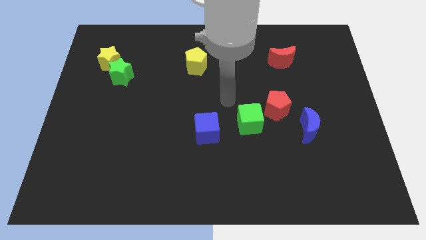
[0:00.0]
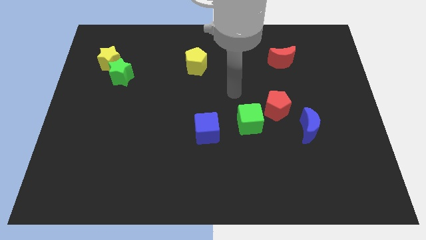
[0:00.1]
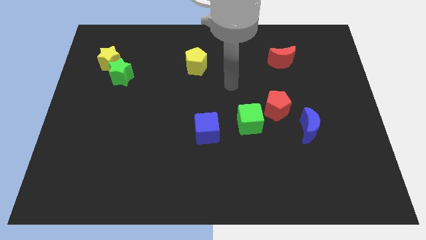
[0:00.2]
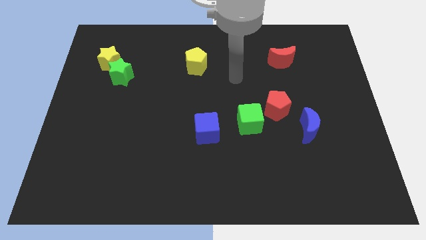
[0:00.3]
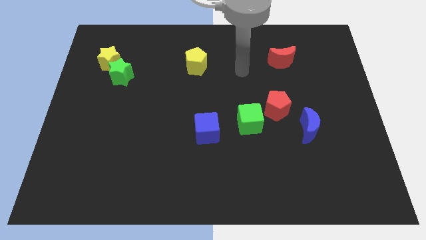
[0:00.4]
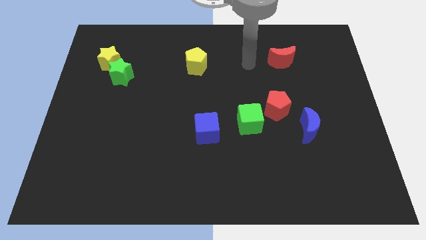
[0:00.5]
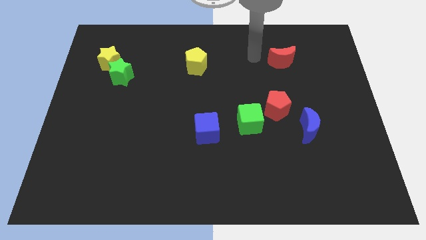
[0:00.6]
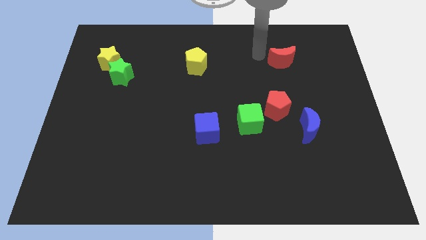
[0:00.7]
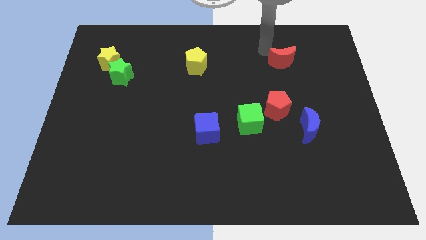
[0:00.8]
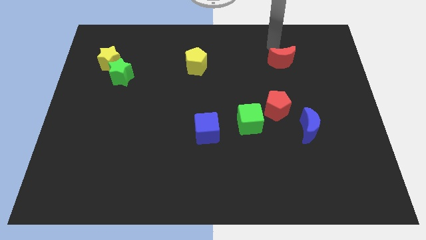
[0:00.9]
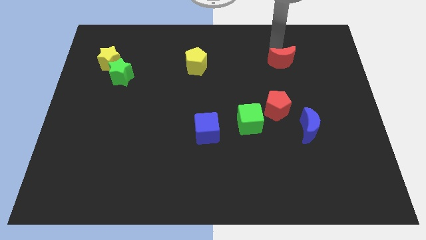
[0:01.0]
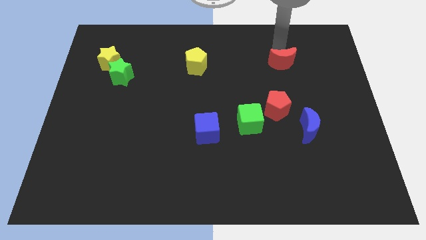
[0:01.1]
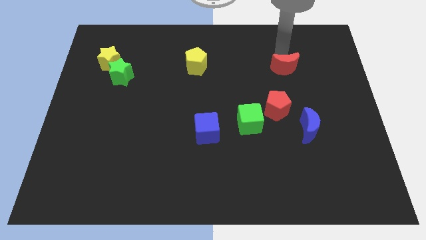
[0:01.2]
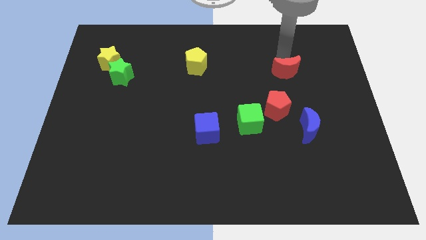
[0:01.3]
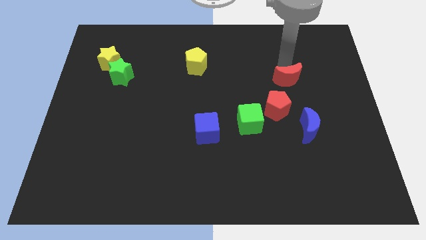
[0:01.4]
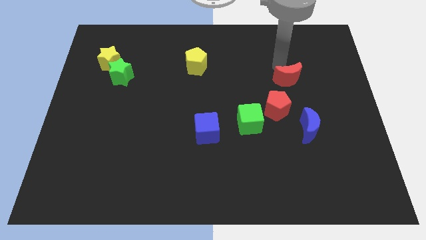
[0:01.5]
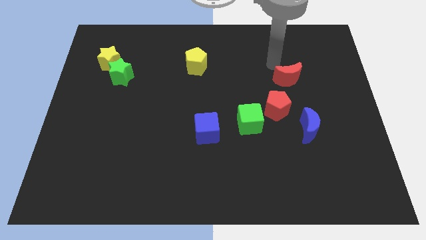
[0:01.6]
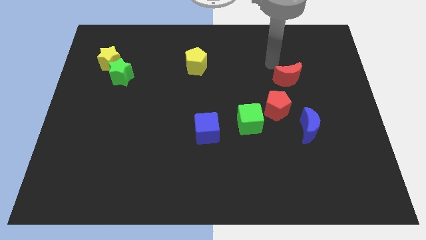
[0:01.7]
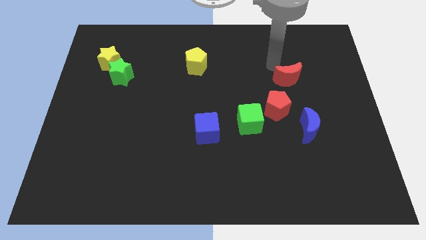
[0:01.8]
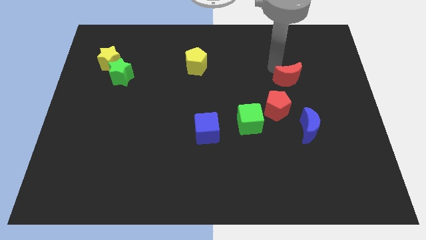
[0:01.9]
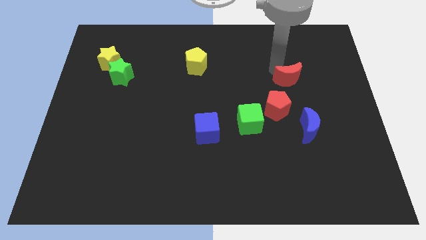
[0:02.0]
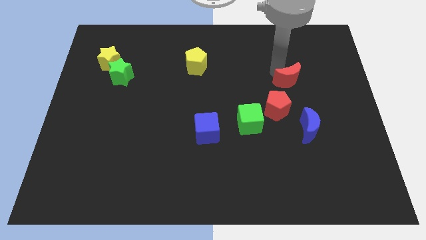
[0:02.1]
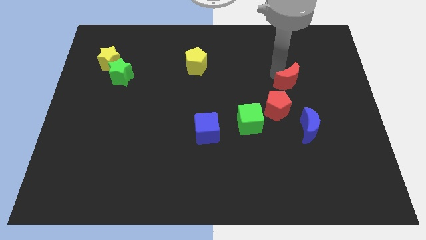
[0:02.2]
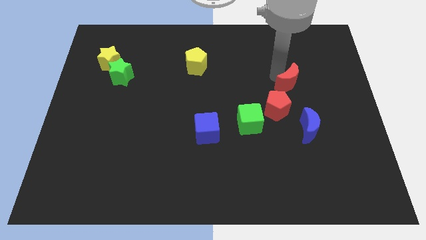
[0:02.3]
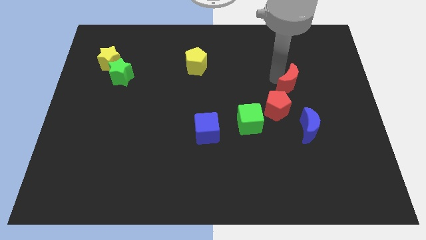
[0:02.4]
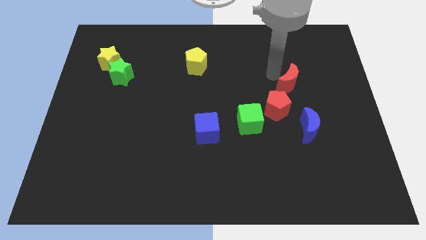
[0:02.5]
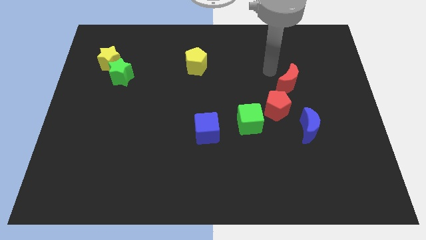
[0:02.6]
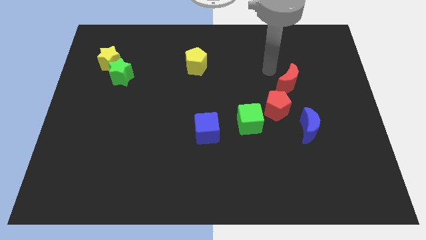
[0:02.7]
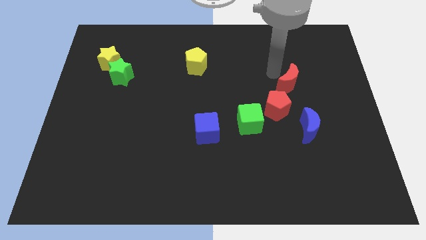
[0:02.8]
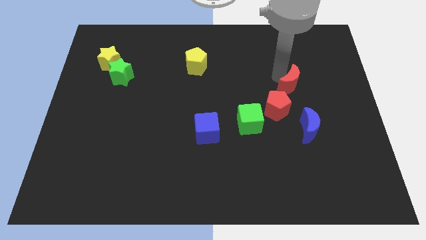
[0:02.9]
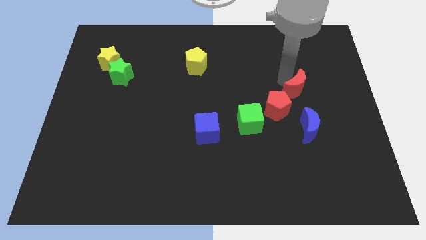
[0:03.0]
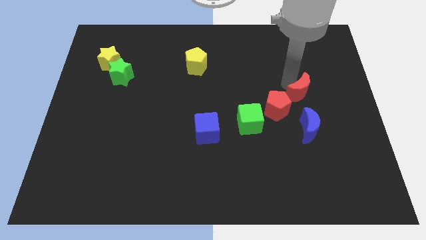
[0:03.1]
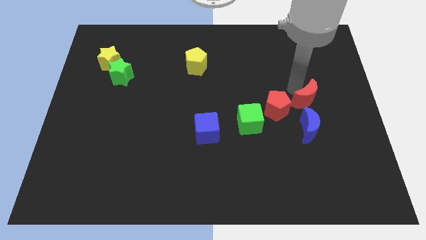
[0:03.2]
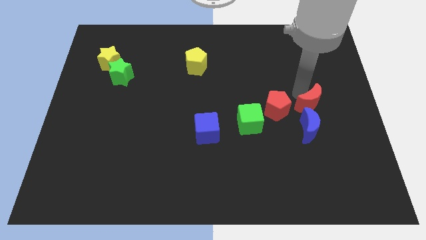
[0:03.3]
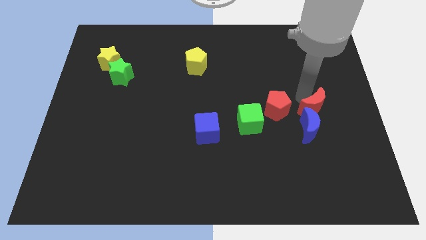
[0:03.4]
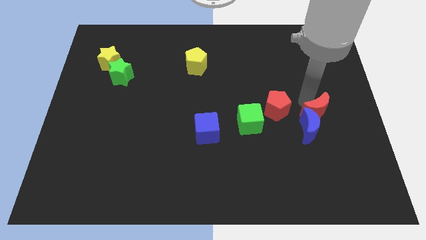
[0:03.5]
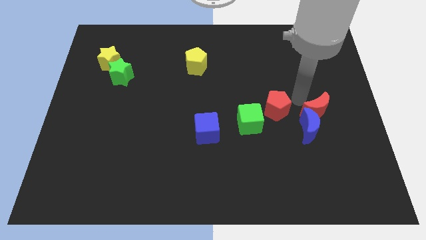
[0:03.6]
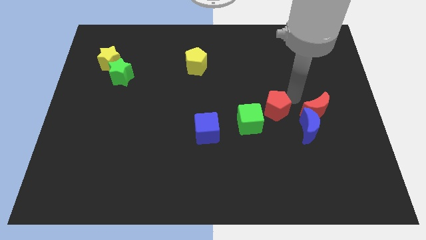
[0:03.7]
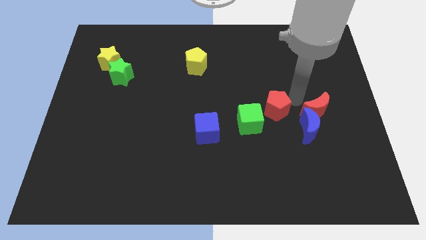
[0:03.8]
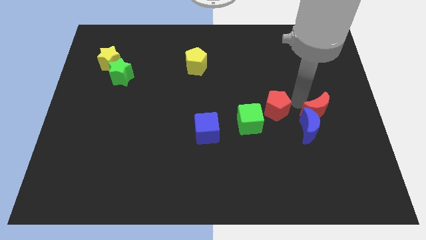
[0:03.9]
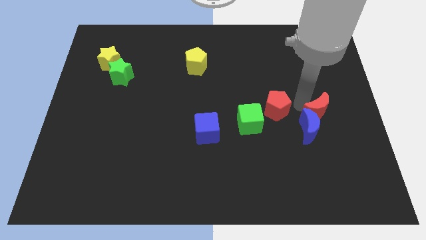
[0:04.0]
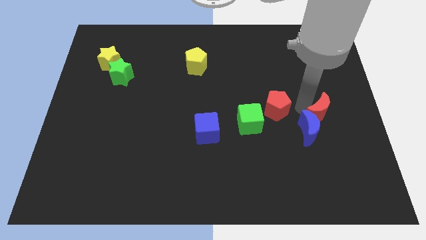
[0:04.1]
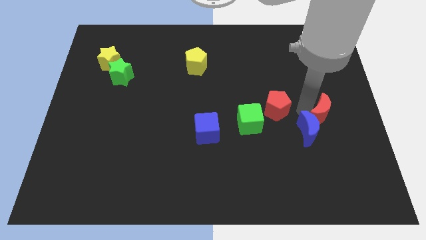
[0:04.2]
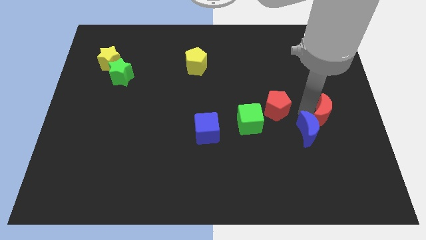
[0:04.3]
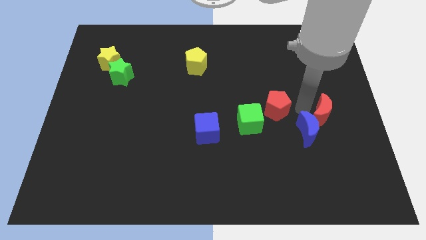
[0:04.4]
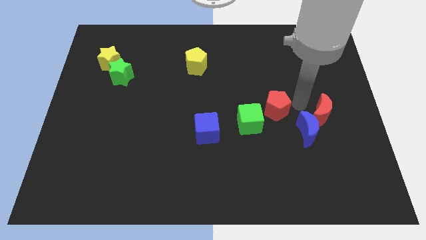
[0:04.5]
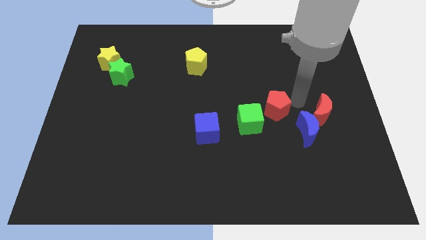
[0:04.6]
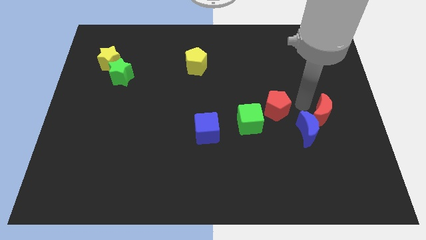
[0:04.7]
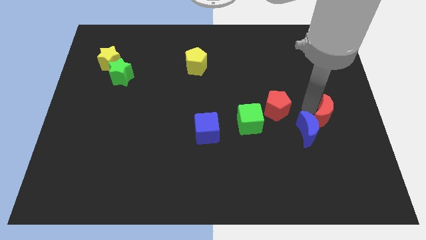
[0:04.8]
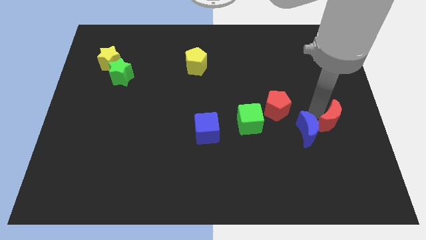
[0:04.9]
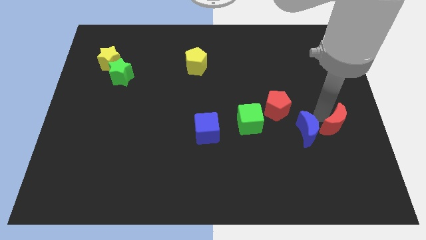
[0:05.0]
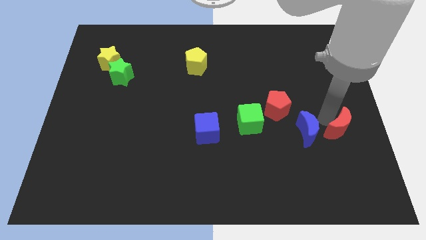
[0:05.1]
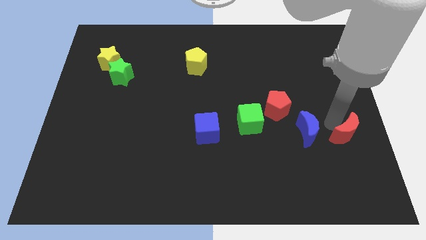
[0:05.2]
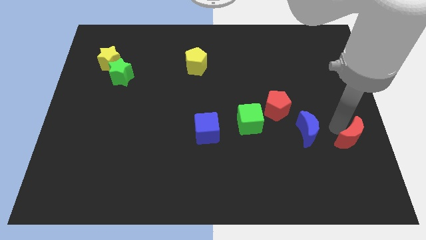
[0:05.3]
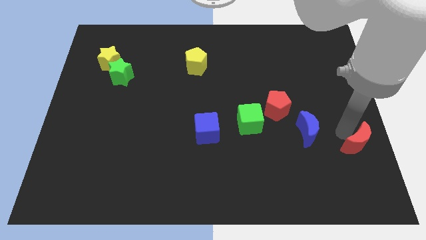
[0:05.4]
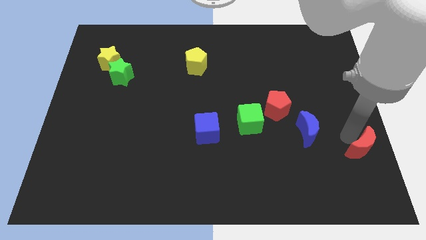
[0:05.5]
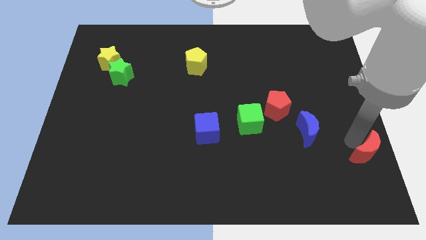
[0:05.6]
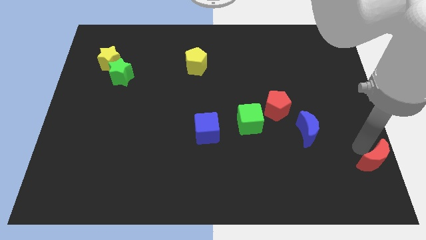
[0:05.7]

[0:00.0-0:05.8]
move the red moon to the lower right corner

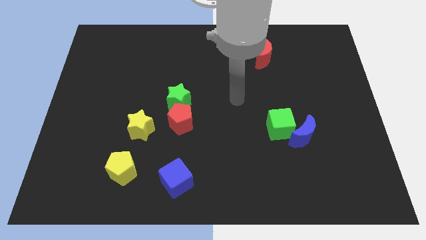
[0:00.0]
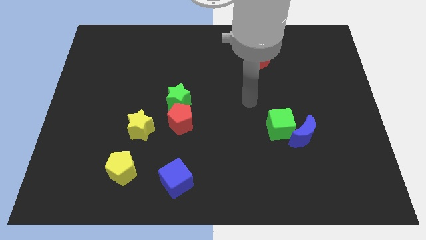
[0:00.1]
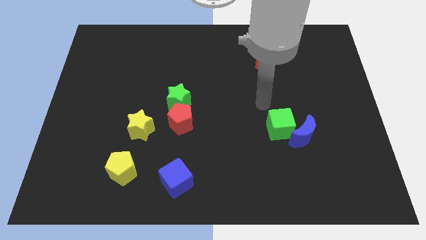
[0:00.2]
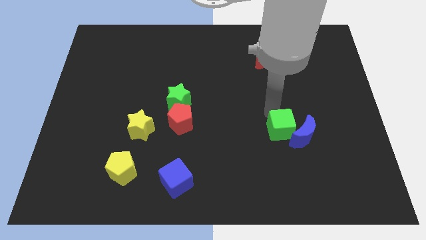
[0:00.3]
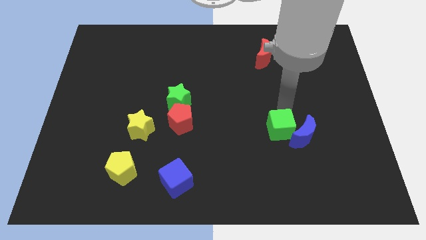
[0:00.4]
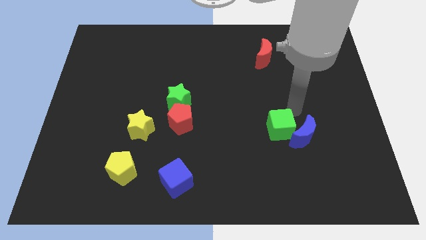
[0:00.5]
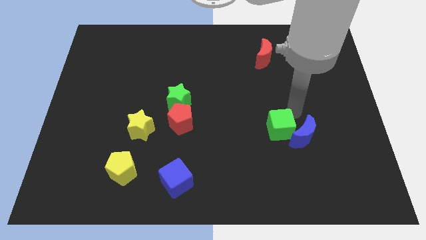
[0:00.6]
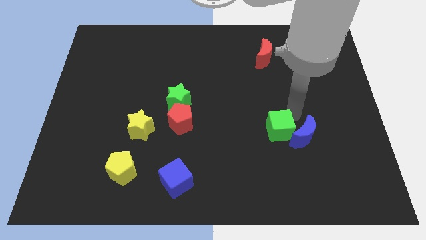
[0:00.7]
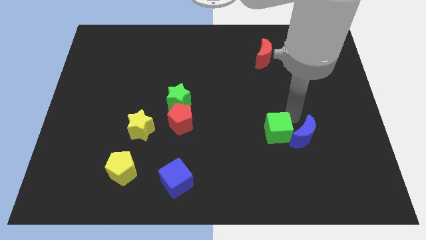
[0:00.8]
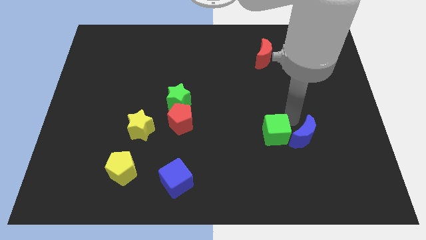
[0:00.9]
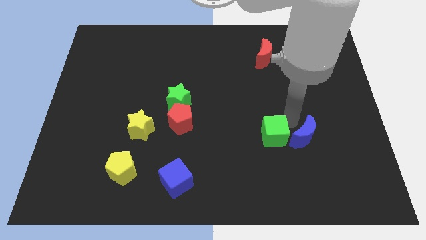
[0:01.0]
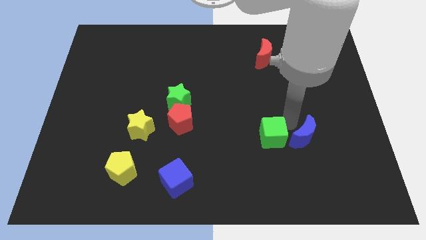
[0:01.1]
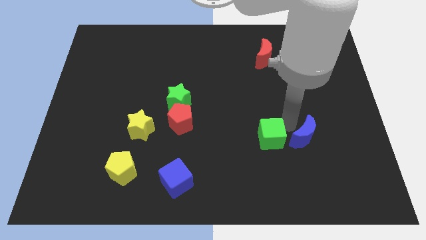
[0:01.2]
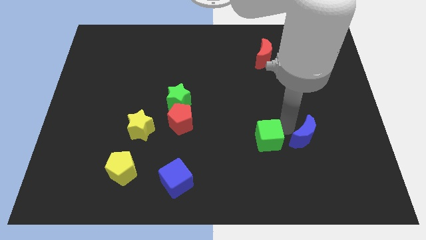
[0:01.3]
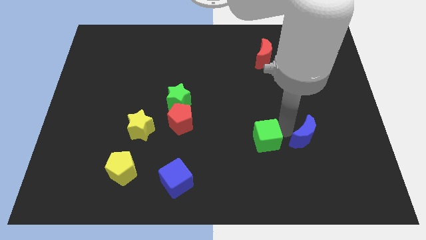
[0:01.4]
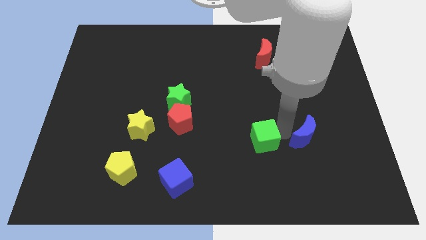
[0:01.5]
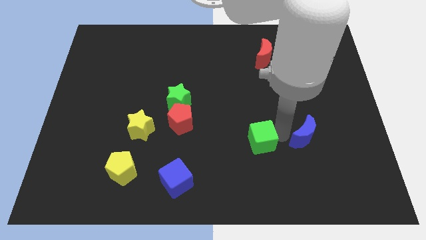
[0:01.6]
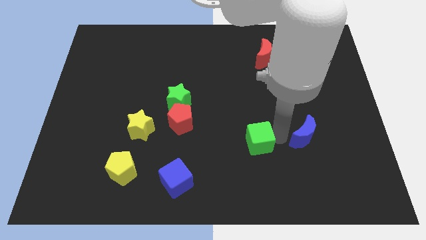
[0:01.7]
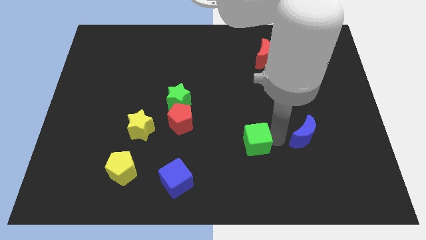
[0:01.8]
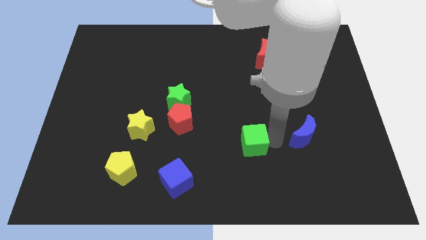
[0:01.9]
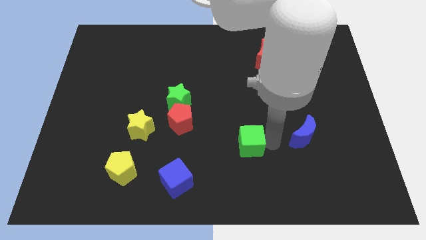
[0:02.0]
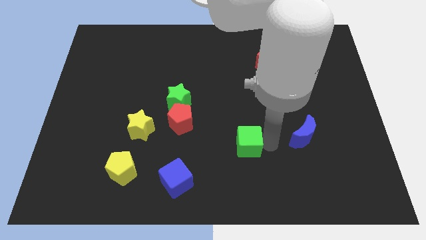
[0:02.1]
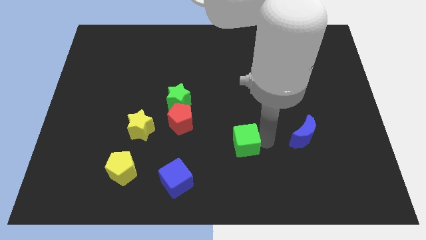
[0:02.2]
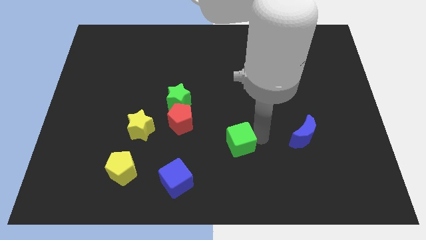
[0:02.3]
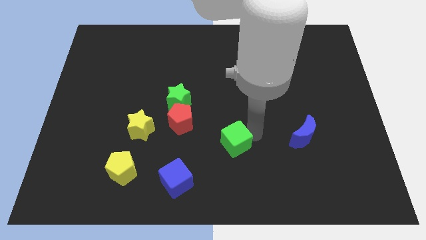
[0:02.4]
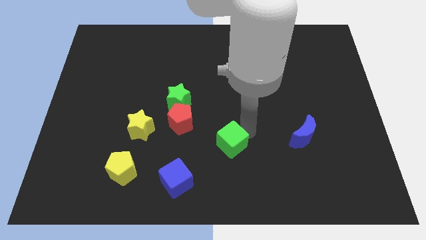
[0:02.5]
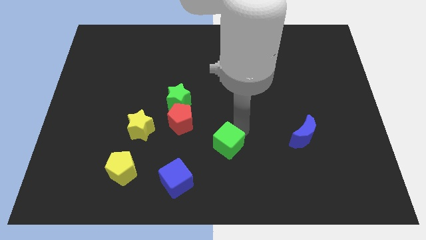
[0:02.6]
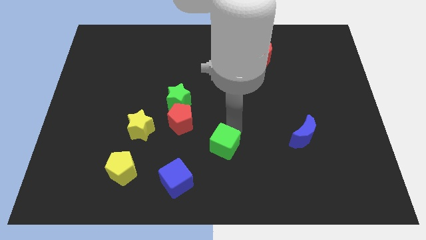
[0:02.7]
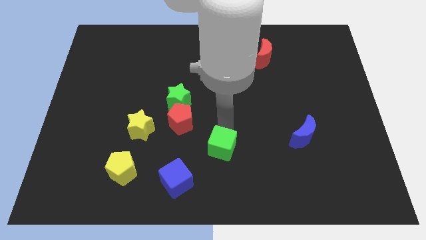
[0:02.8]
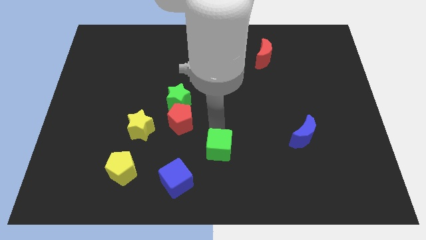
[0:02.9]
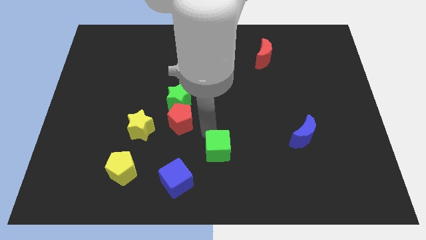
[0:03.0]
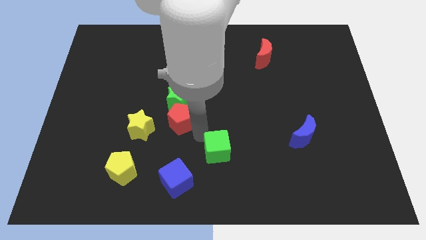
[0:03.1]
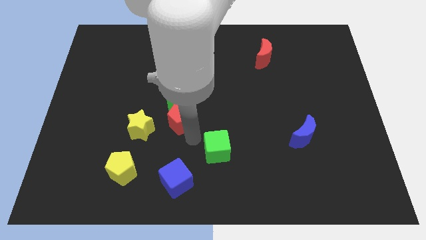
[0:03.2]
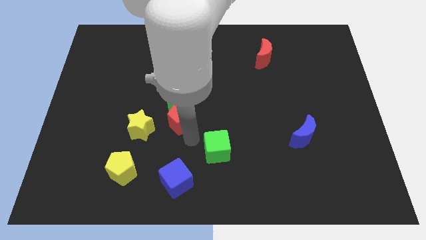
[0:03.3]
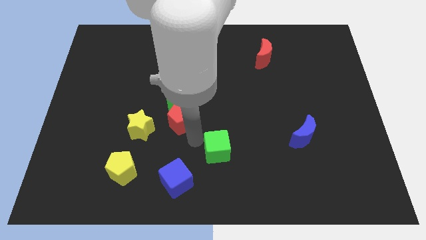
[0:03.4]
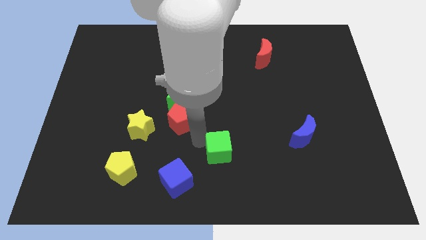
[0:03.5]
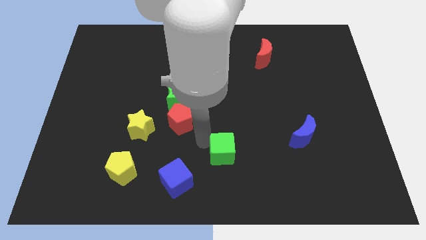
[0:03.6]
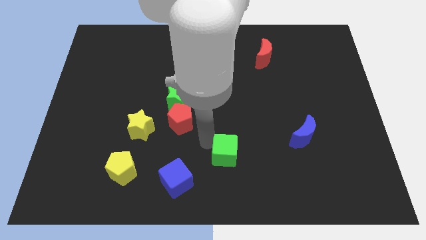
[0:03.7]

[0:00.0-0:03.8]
push the green cube to the bottom
